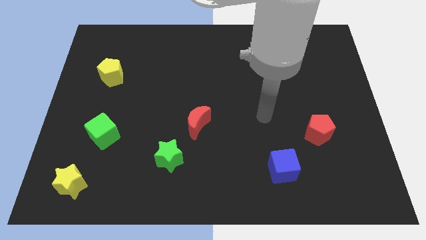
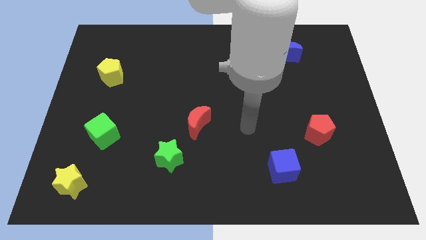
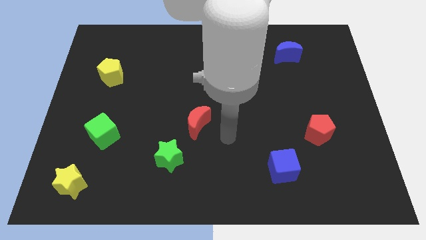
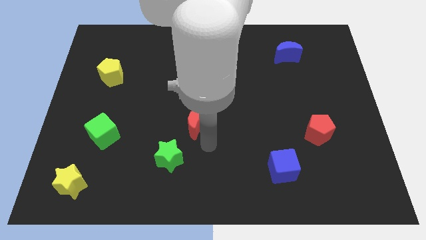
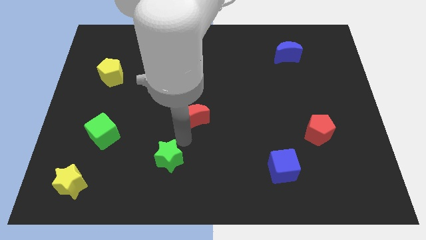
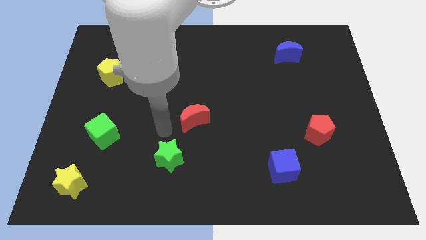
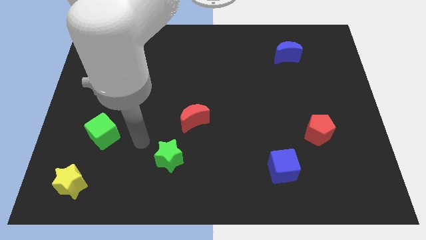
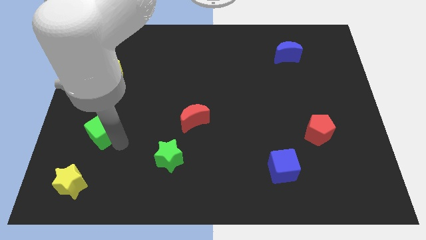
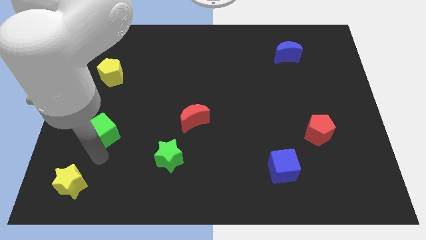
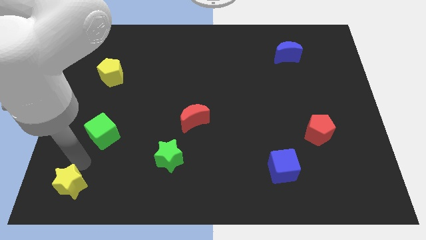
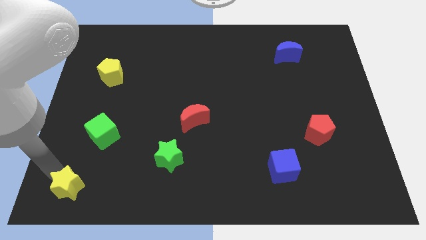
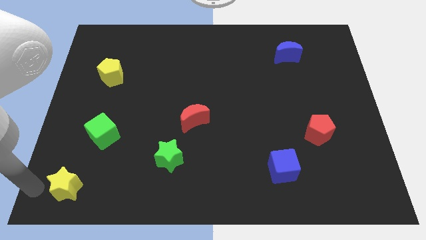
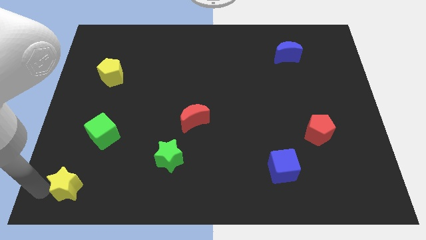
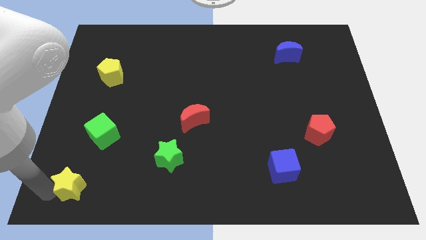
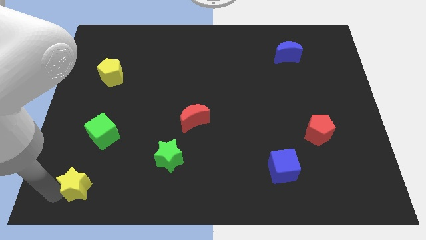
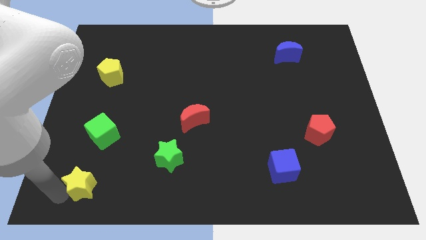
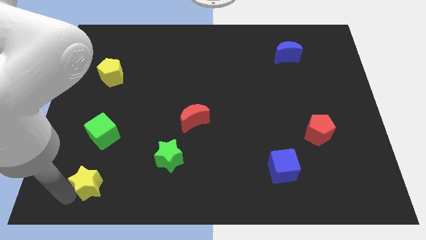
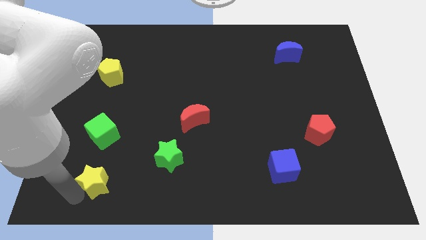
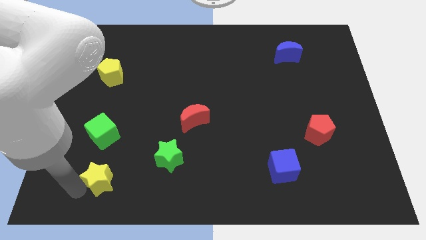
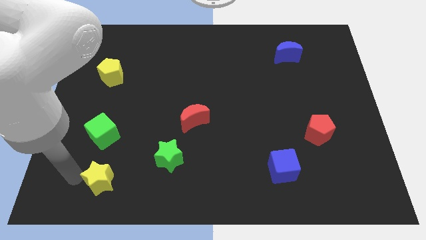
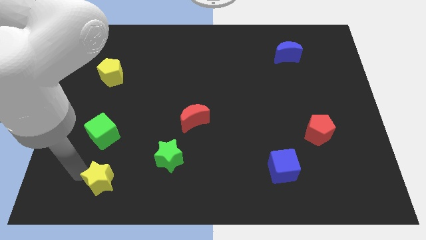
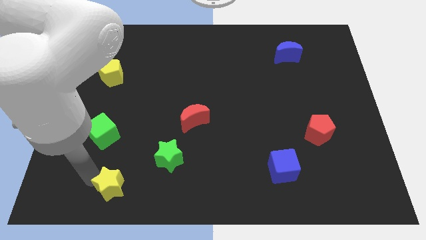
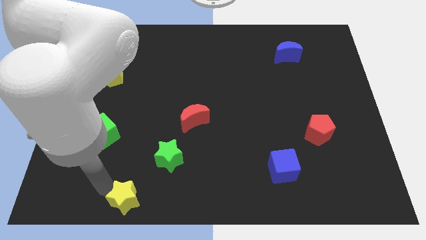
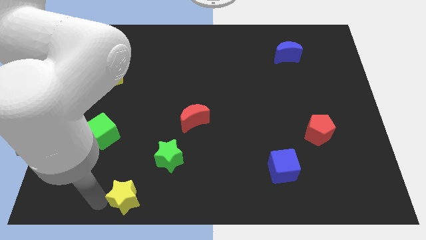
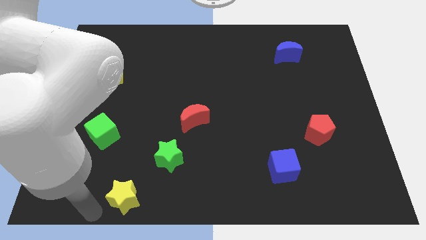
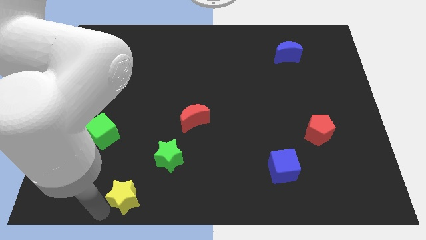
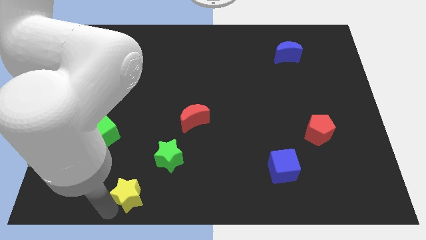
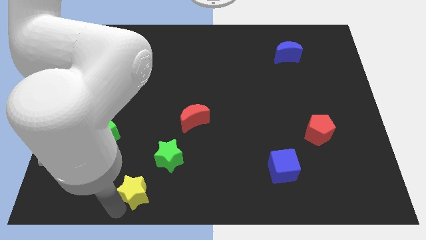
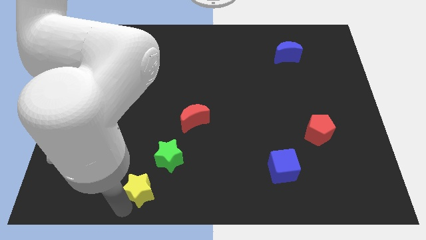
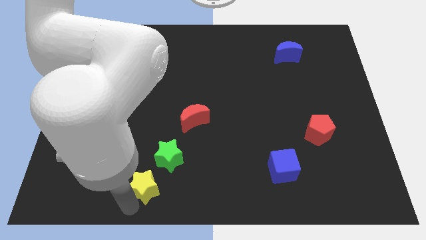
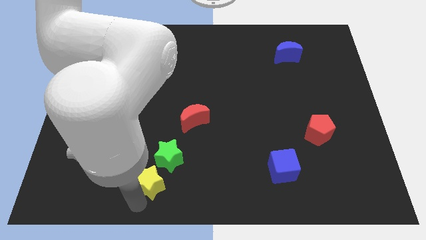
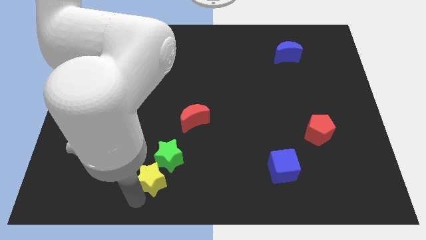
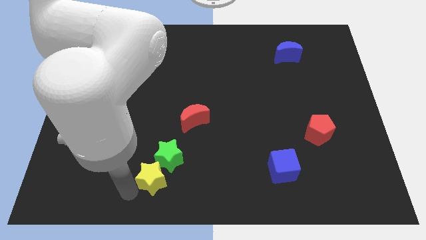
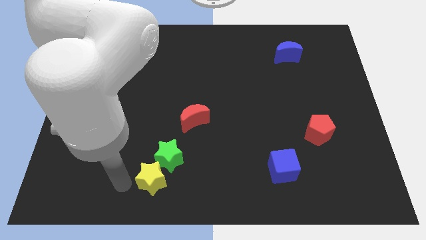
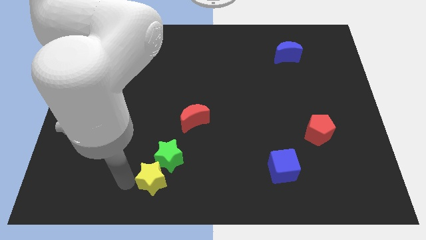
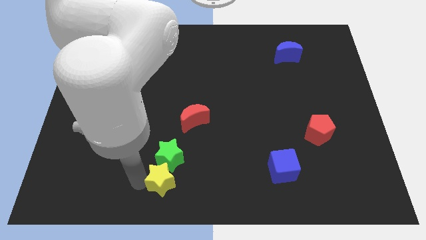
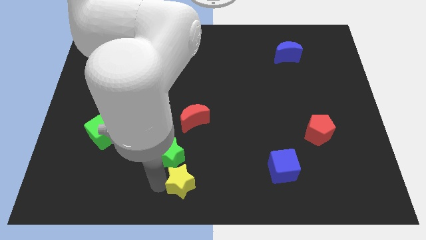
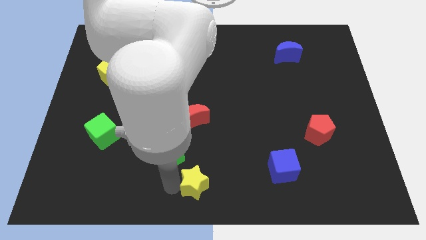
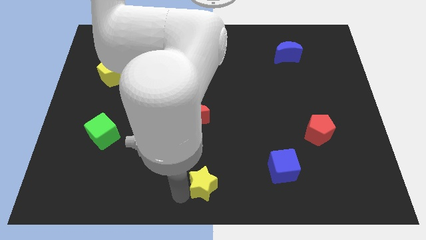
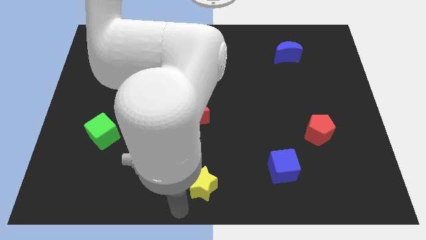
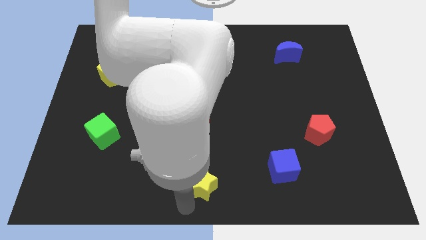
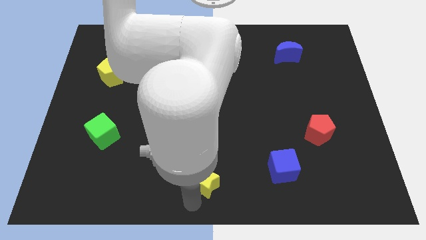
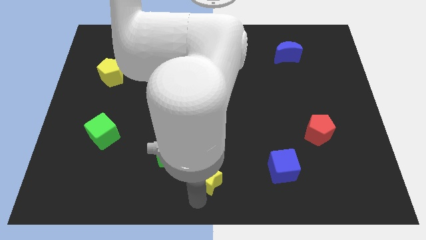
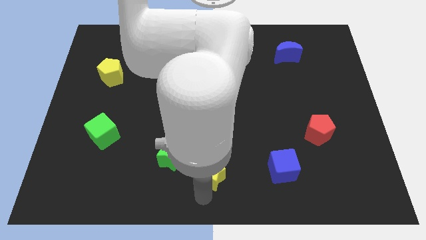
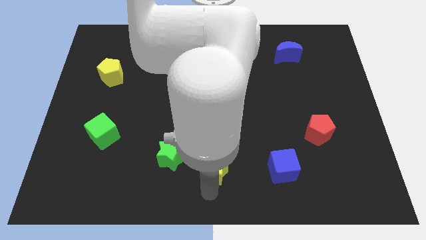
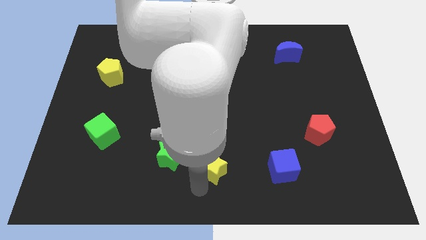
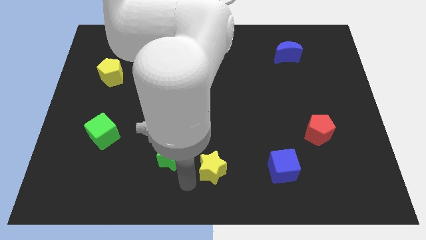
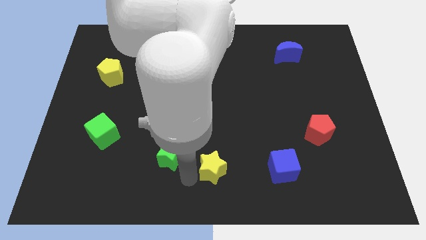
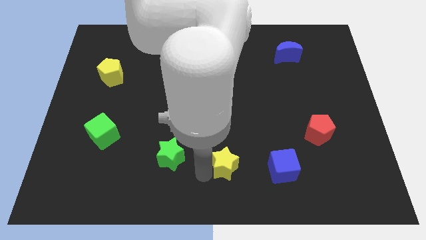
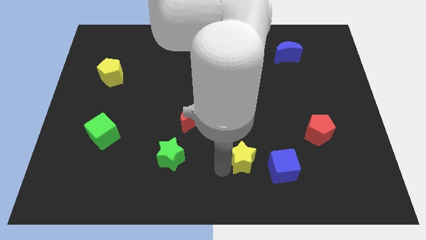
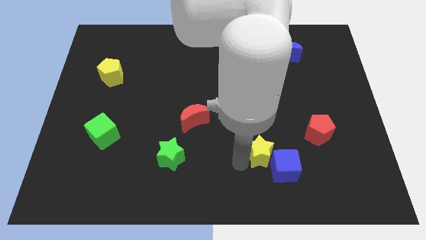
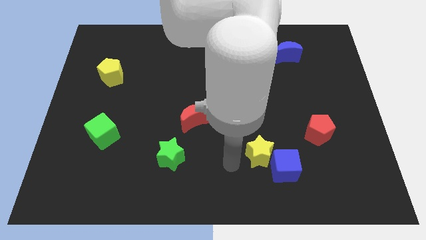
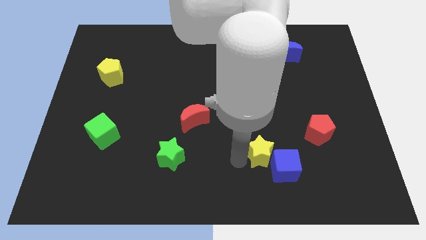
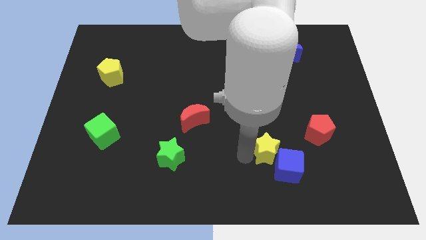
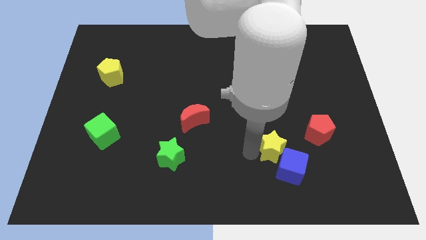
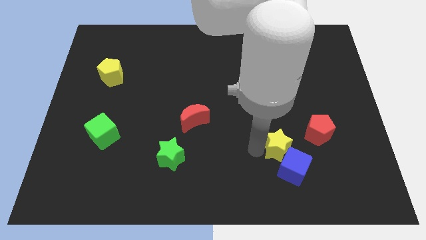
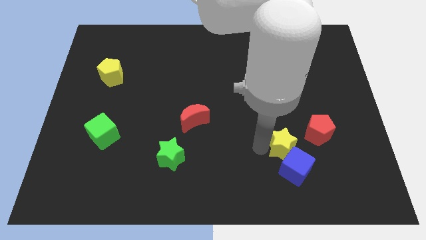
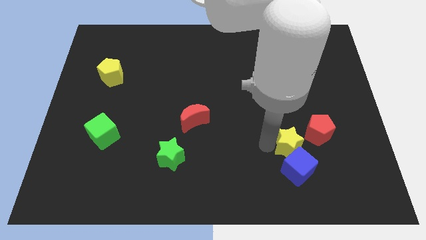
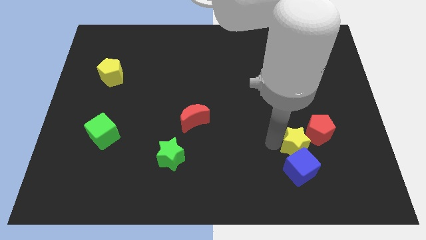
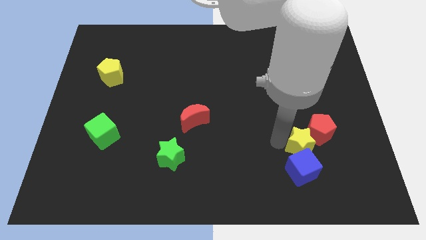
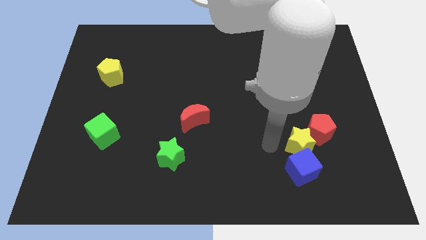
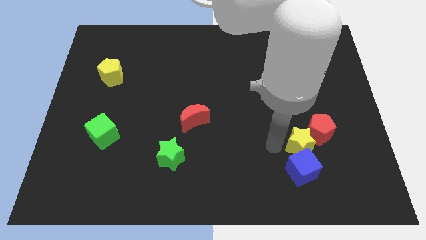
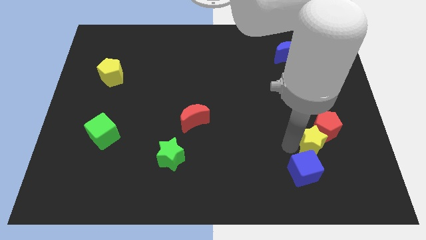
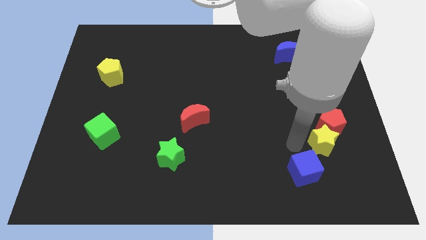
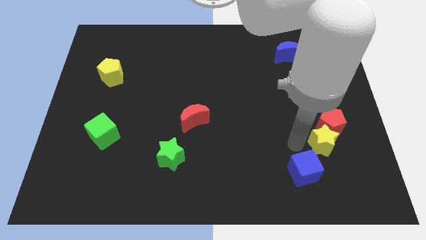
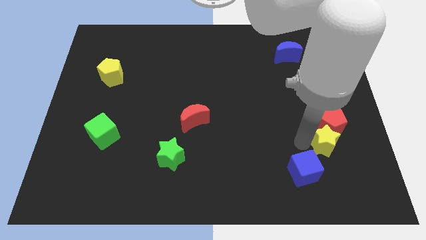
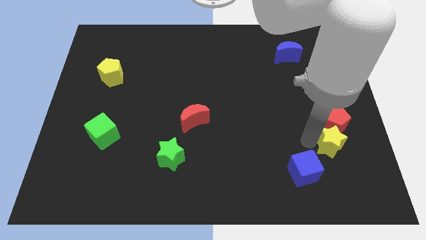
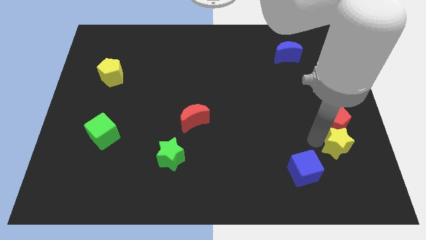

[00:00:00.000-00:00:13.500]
slide the yellow star to the bottom right side of the red pentagon

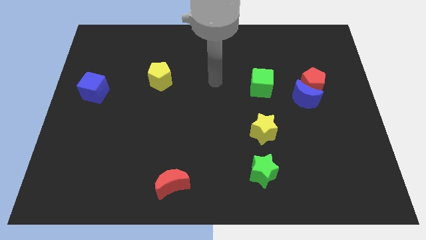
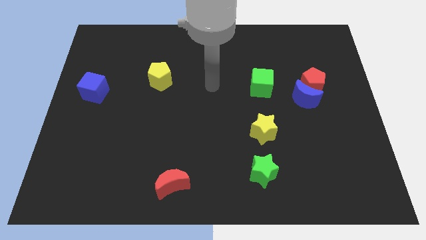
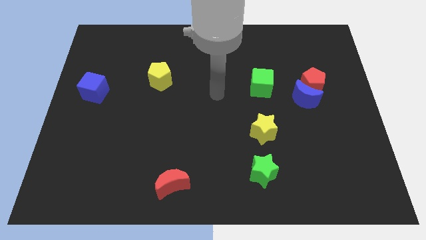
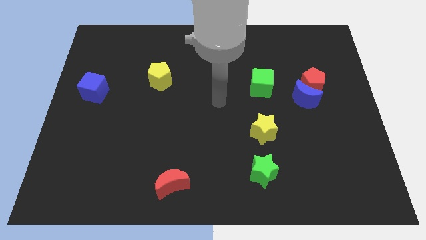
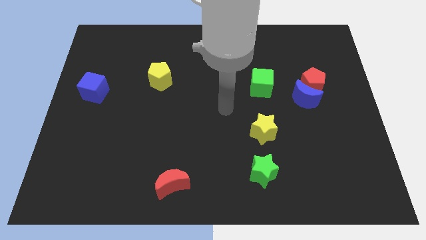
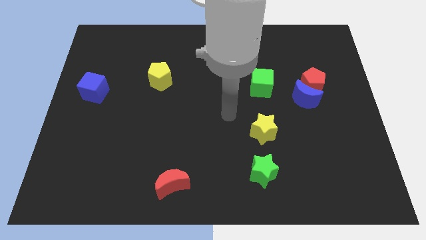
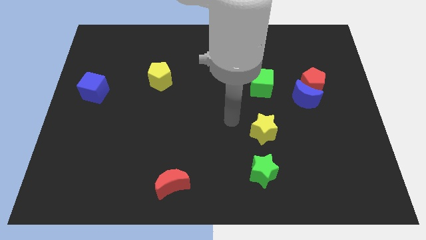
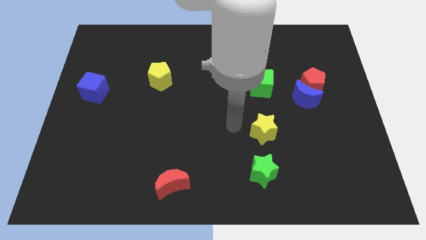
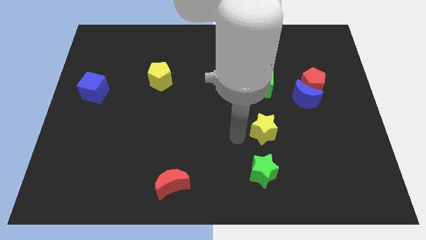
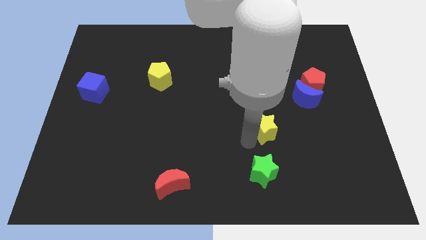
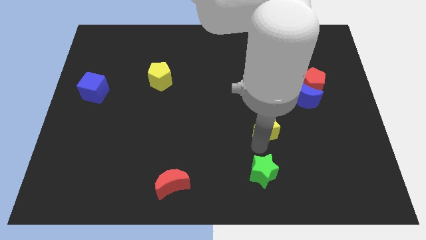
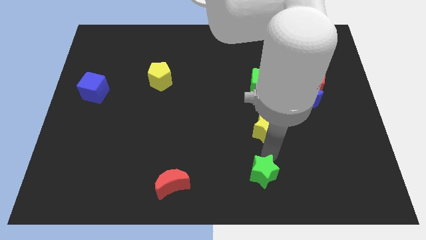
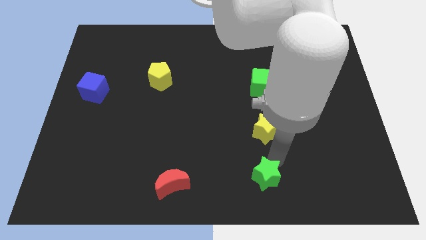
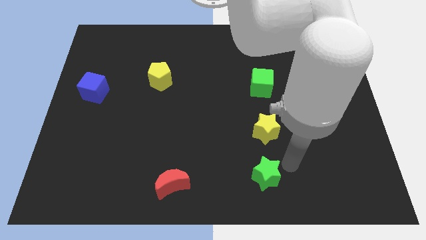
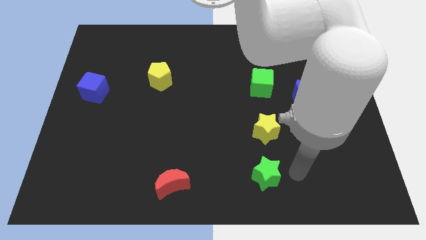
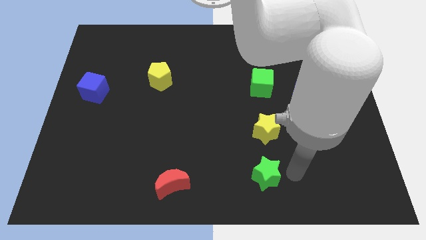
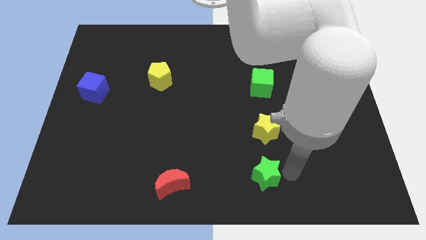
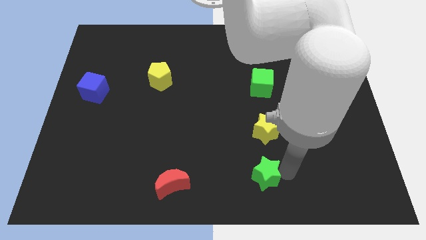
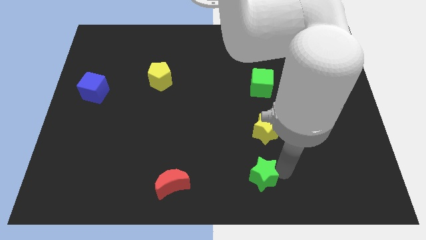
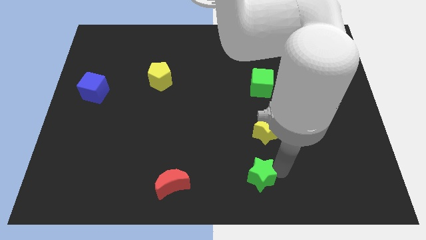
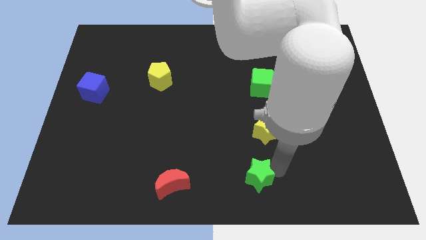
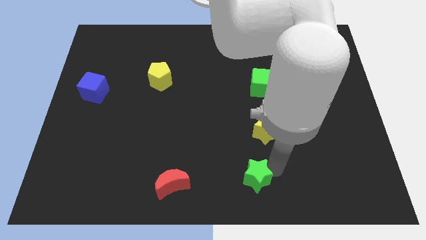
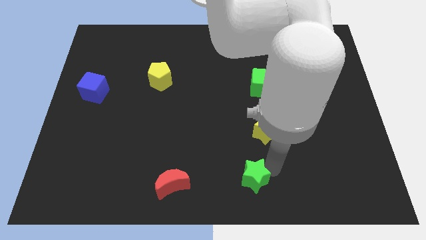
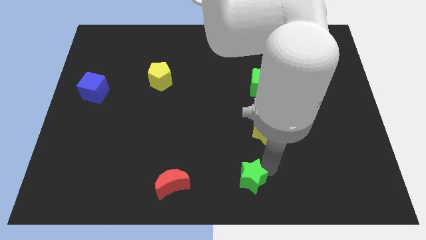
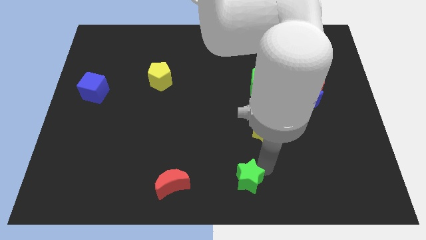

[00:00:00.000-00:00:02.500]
move the green star right of the red moon
